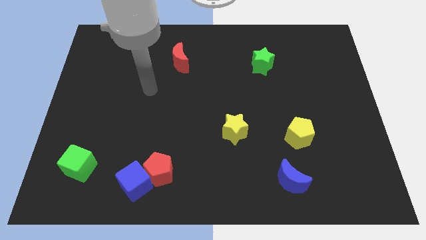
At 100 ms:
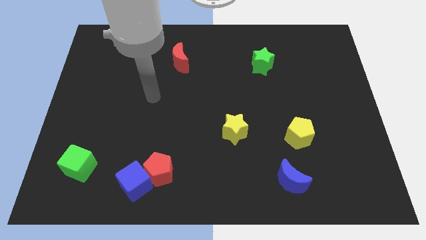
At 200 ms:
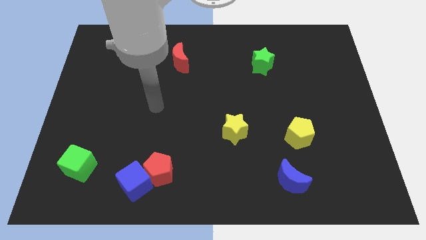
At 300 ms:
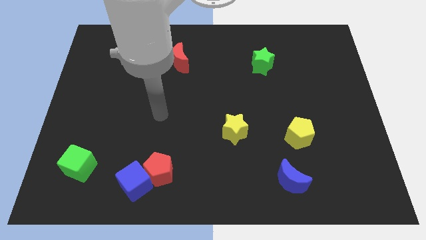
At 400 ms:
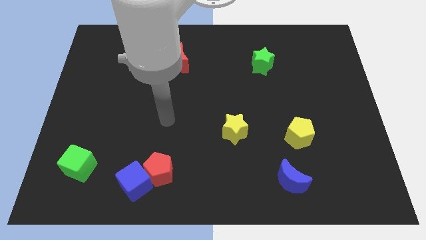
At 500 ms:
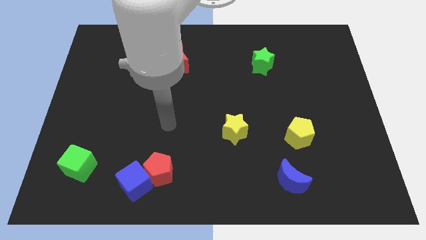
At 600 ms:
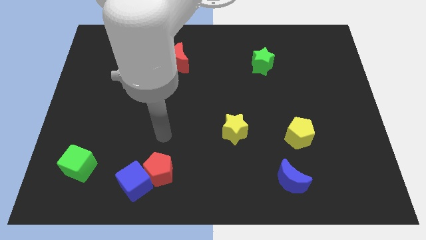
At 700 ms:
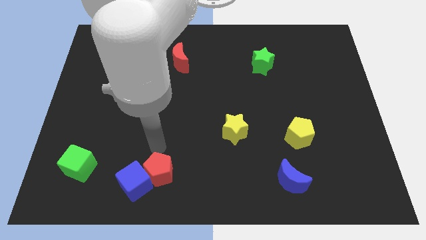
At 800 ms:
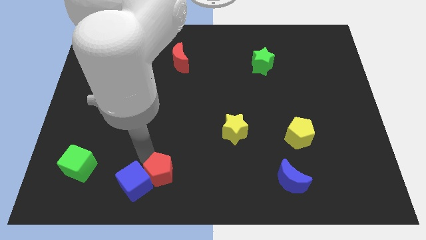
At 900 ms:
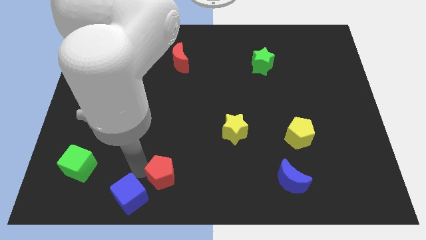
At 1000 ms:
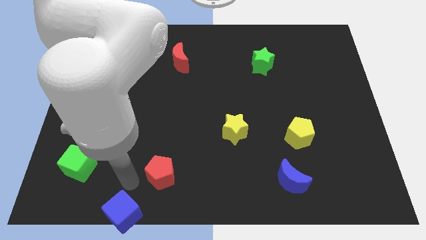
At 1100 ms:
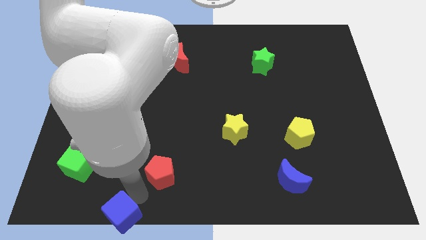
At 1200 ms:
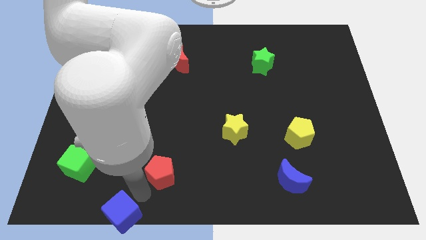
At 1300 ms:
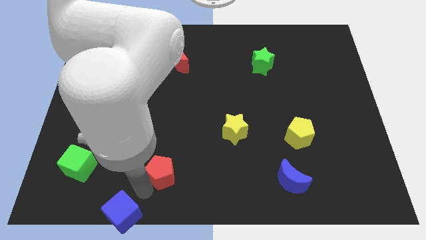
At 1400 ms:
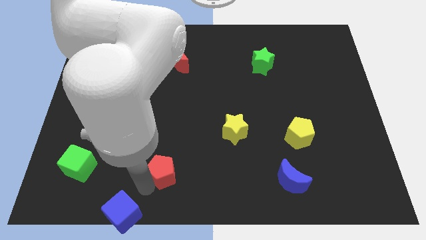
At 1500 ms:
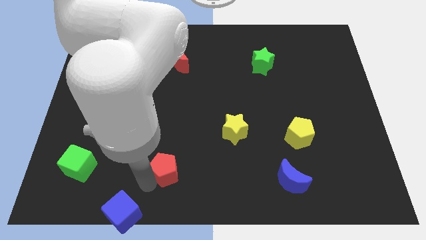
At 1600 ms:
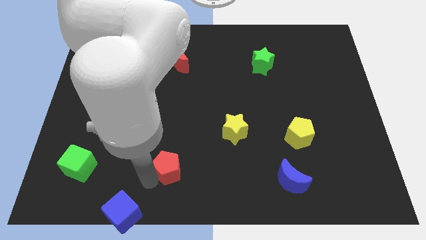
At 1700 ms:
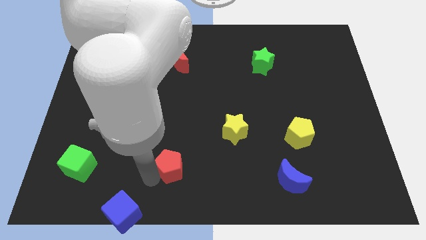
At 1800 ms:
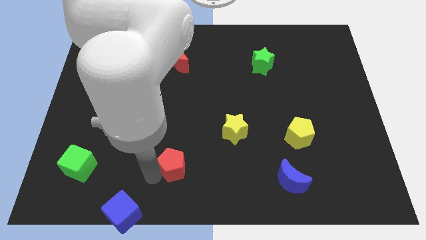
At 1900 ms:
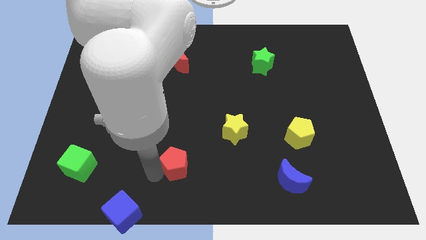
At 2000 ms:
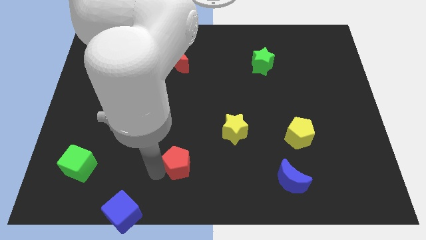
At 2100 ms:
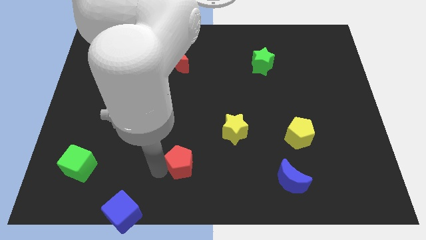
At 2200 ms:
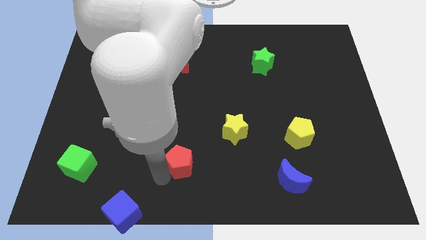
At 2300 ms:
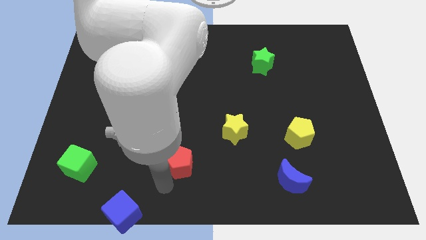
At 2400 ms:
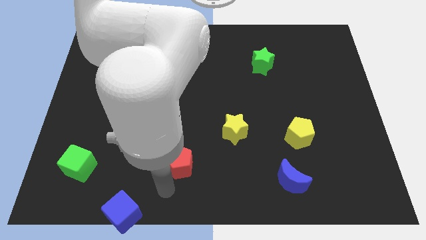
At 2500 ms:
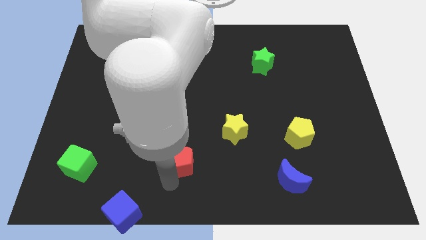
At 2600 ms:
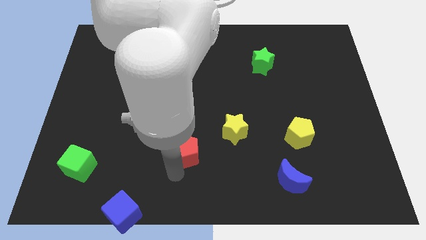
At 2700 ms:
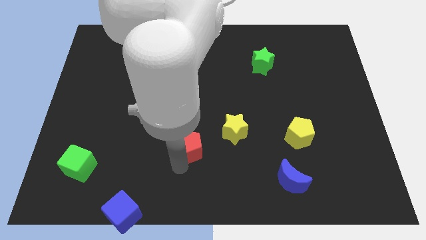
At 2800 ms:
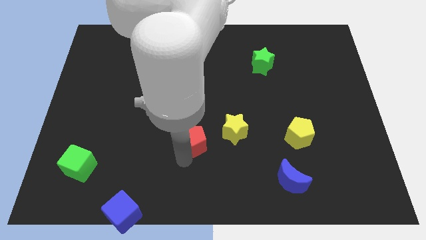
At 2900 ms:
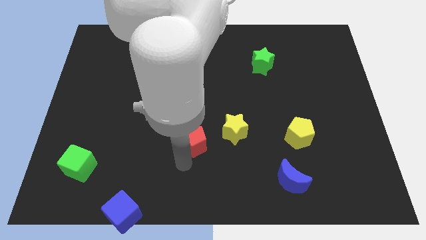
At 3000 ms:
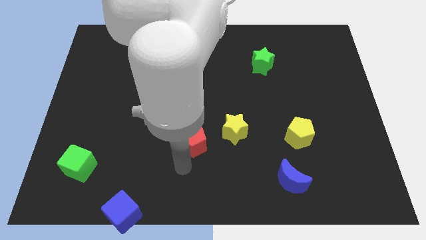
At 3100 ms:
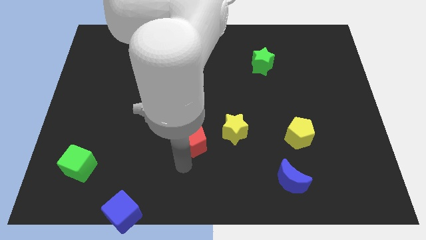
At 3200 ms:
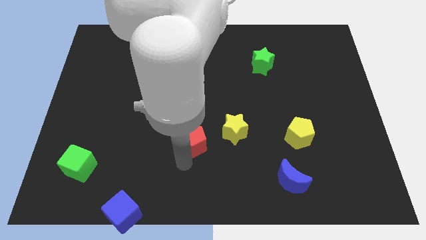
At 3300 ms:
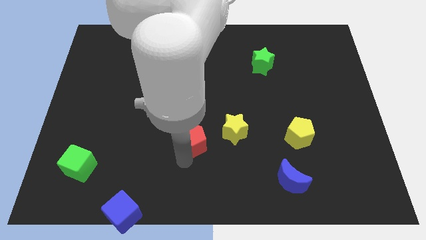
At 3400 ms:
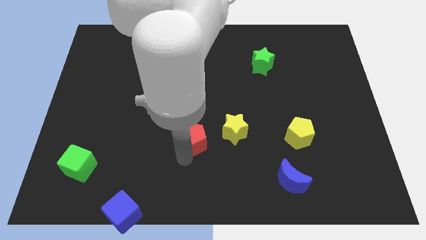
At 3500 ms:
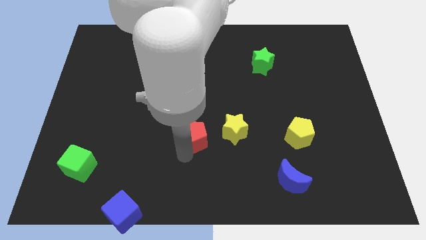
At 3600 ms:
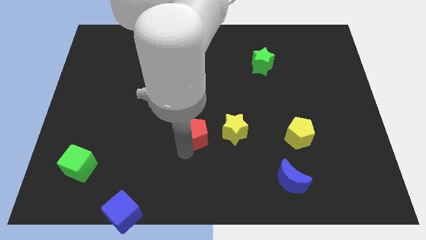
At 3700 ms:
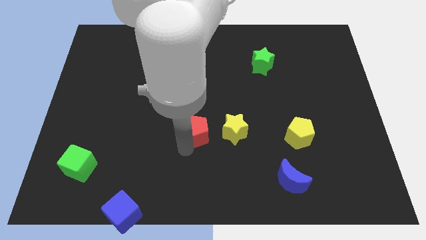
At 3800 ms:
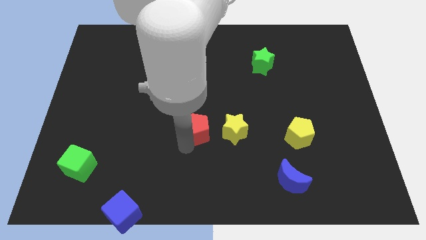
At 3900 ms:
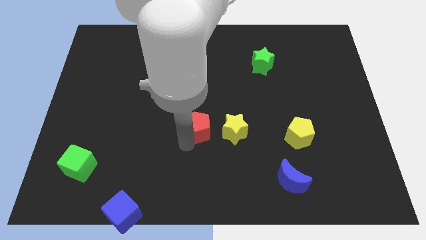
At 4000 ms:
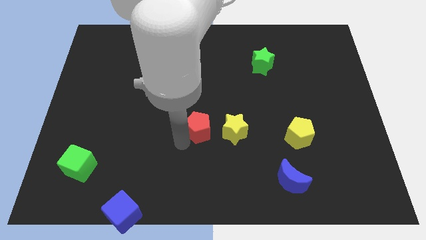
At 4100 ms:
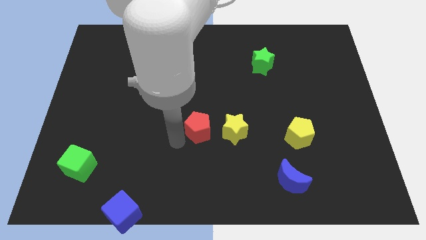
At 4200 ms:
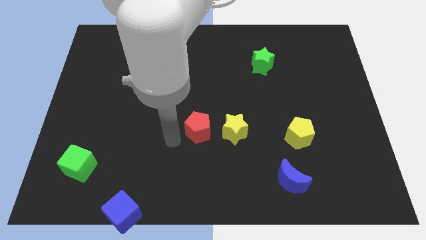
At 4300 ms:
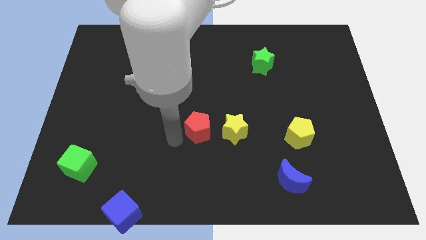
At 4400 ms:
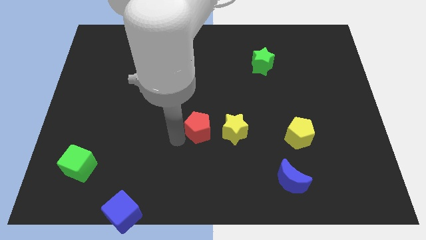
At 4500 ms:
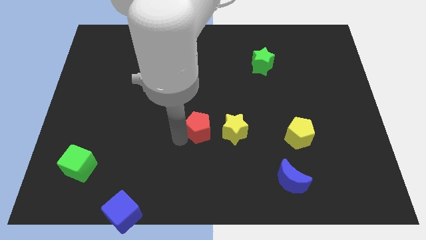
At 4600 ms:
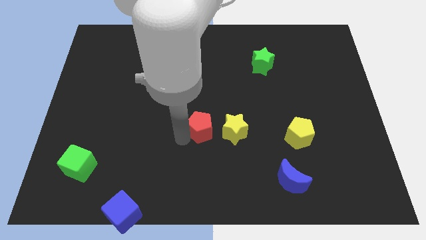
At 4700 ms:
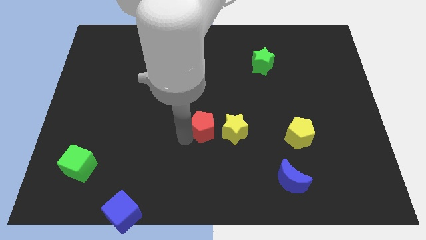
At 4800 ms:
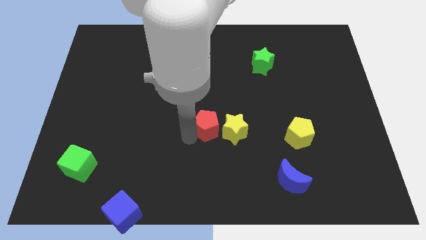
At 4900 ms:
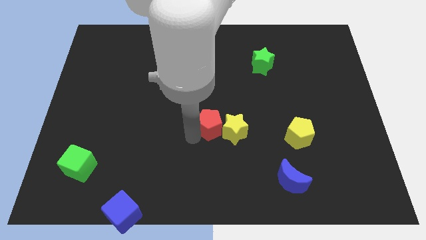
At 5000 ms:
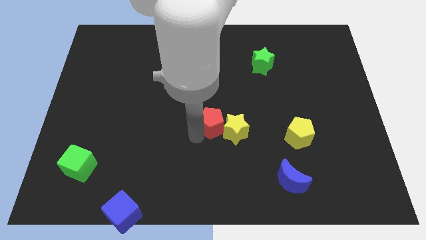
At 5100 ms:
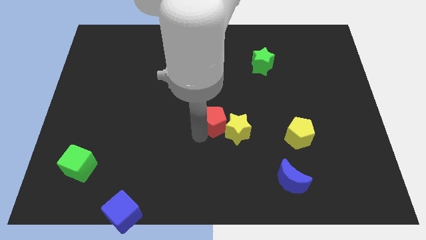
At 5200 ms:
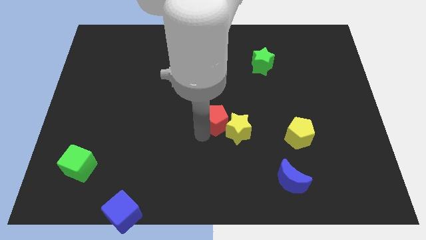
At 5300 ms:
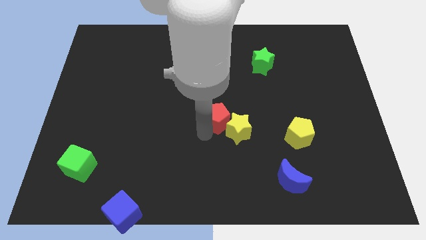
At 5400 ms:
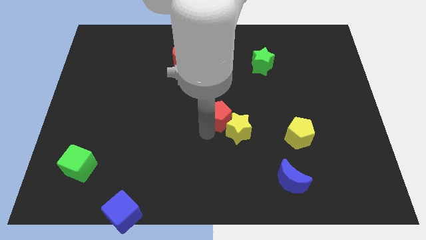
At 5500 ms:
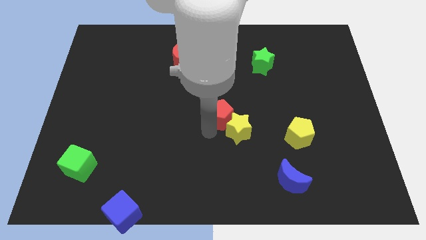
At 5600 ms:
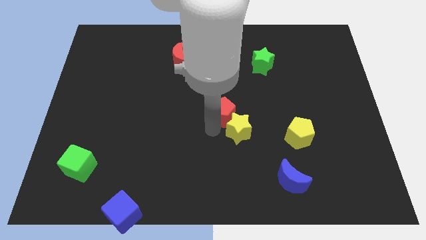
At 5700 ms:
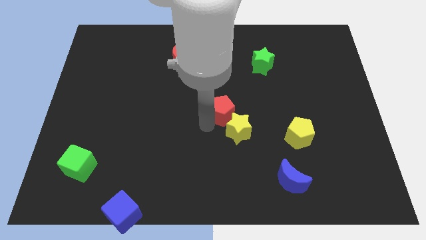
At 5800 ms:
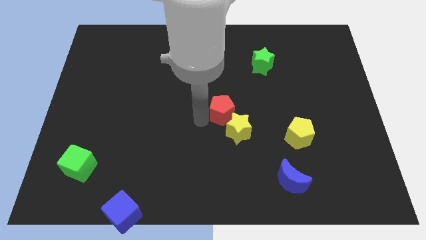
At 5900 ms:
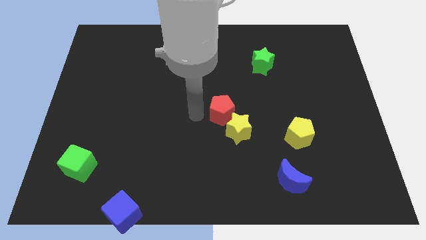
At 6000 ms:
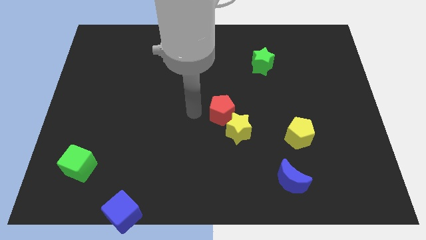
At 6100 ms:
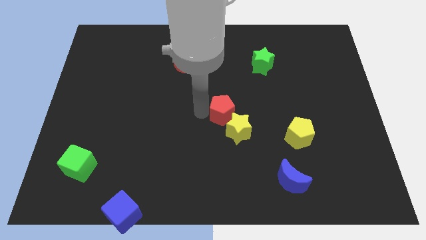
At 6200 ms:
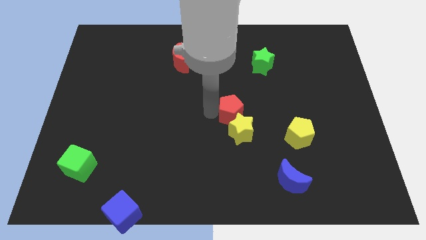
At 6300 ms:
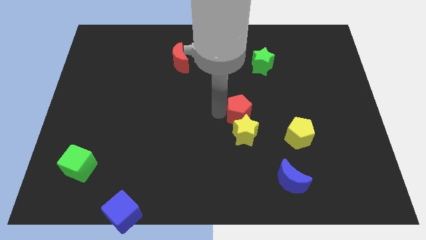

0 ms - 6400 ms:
push the red pentagon to the top right of the yellow star
